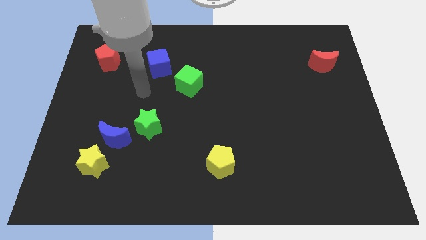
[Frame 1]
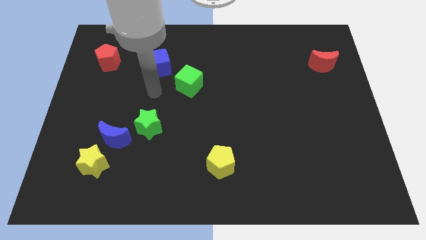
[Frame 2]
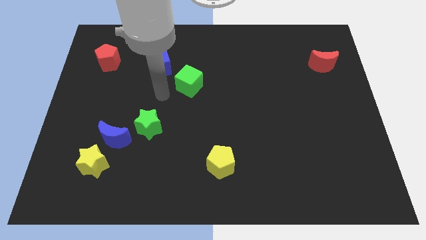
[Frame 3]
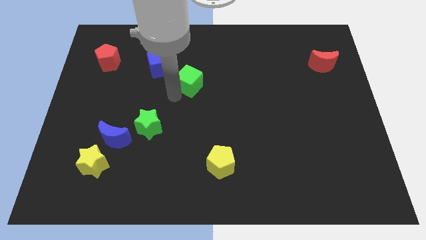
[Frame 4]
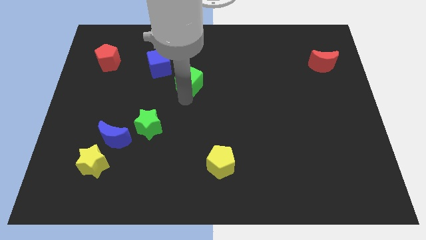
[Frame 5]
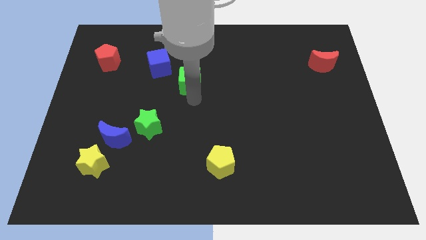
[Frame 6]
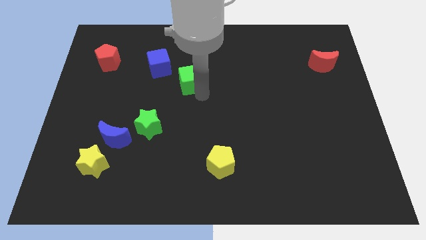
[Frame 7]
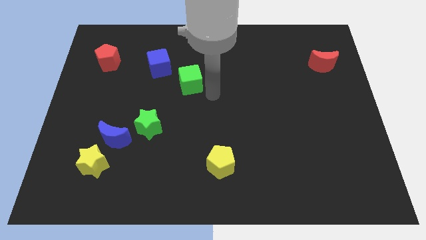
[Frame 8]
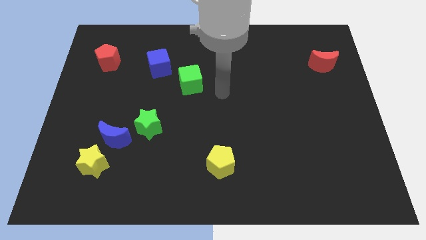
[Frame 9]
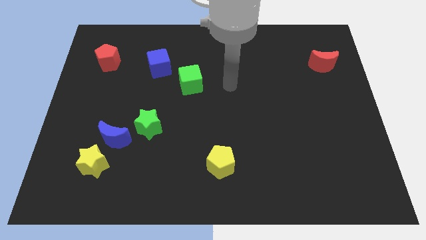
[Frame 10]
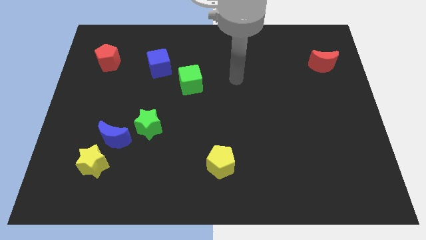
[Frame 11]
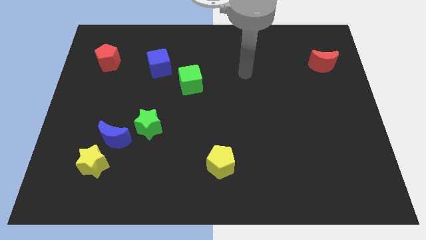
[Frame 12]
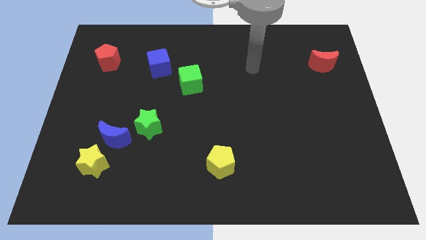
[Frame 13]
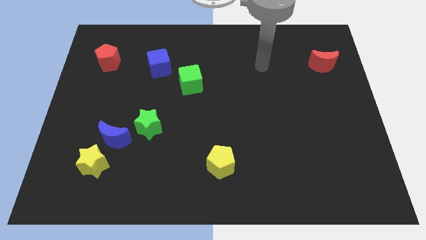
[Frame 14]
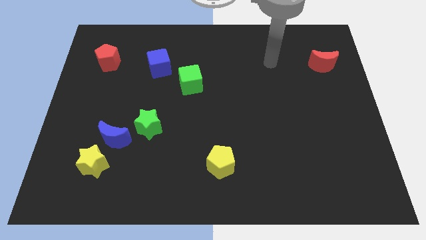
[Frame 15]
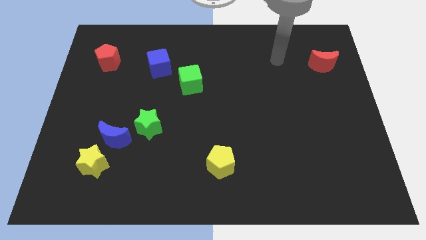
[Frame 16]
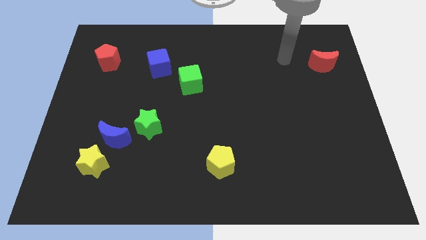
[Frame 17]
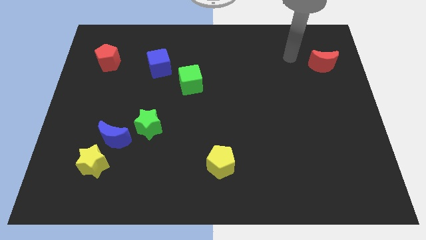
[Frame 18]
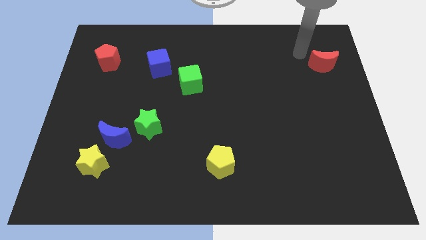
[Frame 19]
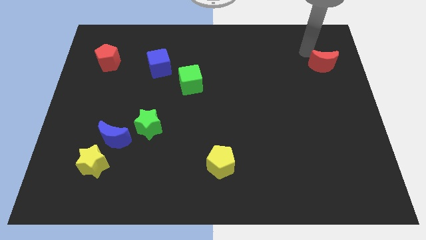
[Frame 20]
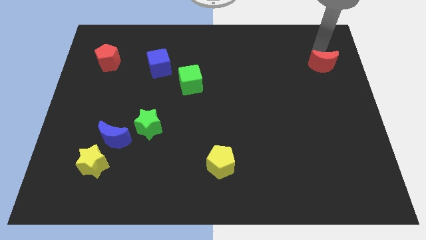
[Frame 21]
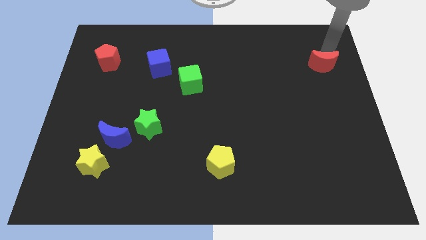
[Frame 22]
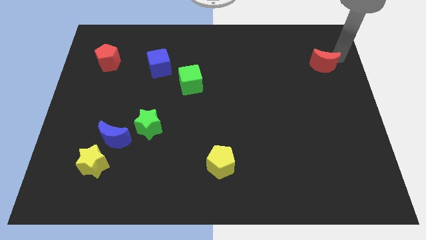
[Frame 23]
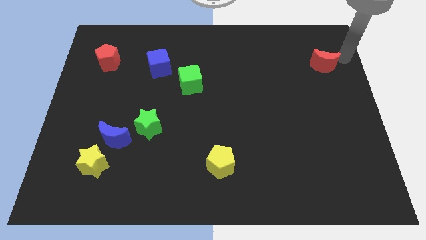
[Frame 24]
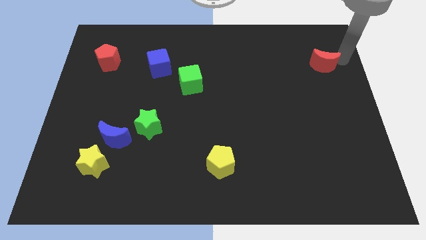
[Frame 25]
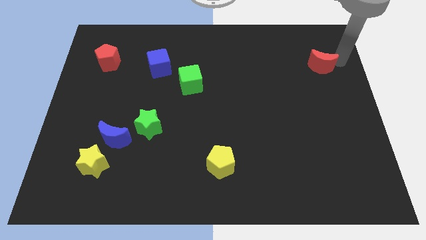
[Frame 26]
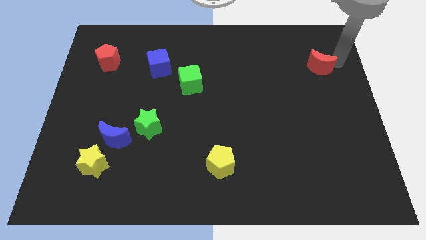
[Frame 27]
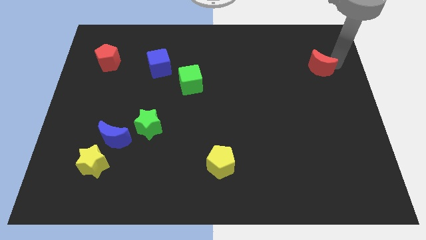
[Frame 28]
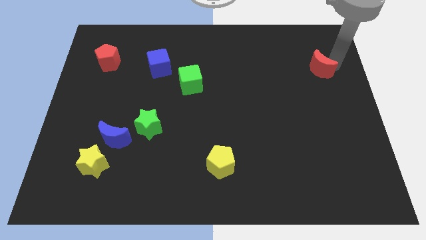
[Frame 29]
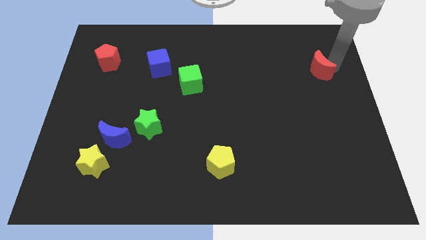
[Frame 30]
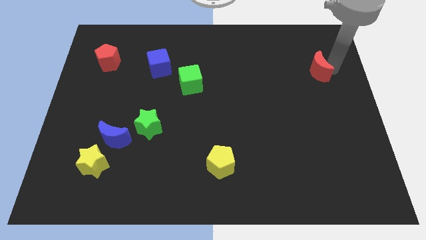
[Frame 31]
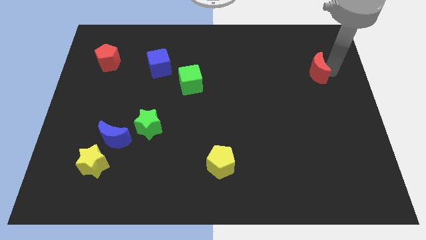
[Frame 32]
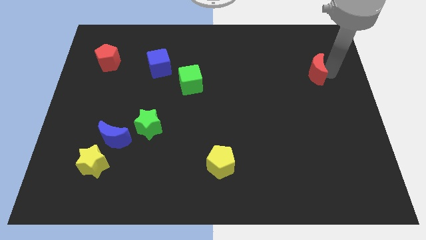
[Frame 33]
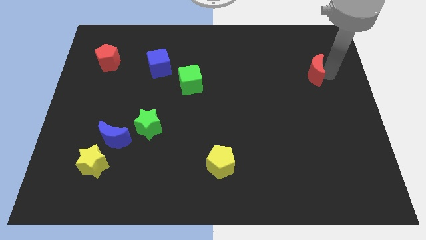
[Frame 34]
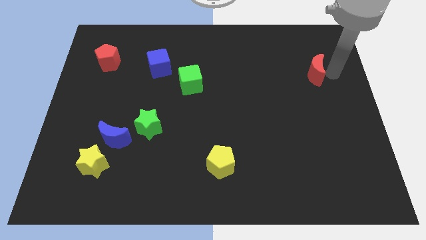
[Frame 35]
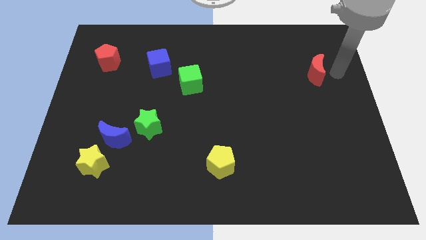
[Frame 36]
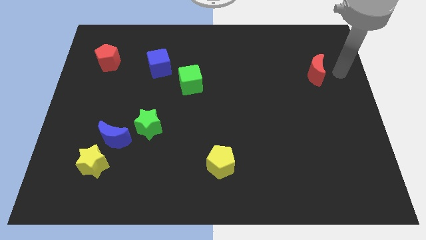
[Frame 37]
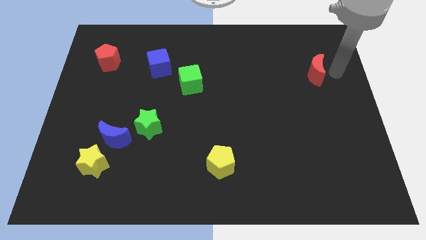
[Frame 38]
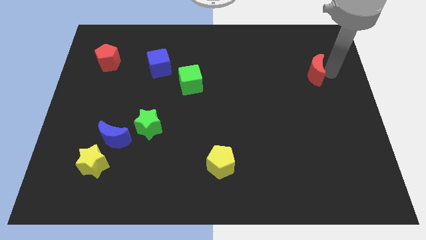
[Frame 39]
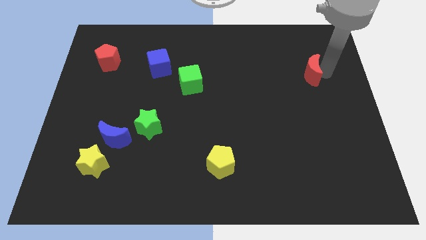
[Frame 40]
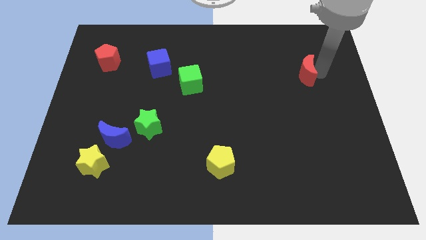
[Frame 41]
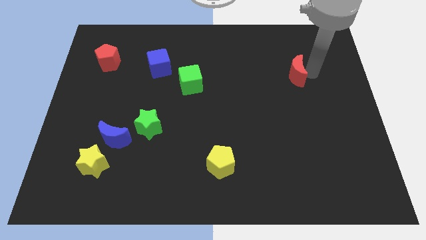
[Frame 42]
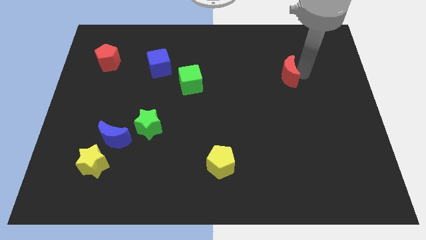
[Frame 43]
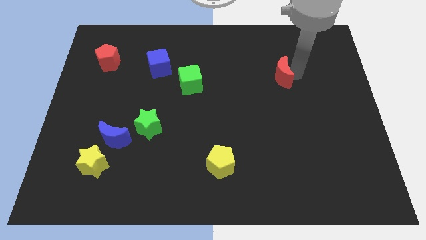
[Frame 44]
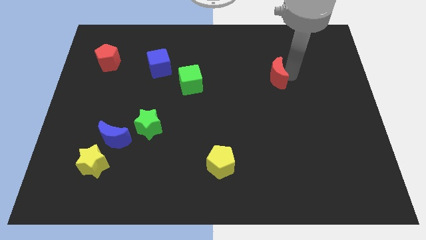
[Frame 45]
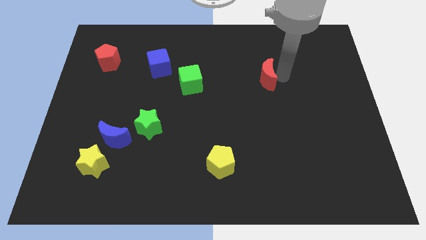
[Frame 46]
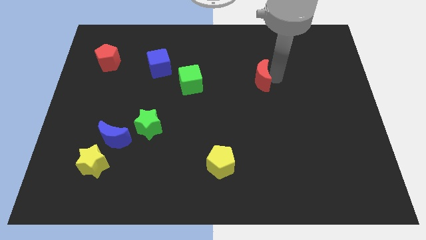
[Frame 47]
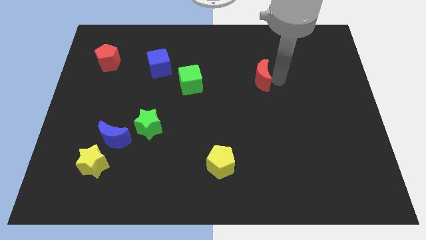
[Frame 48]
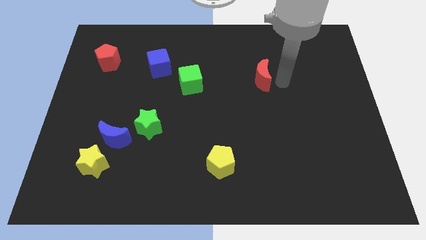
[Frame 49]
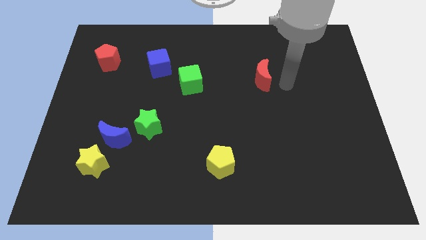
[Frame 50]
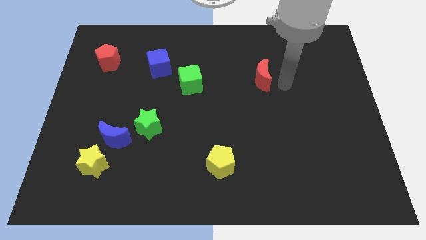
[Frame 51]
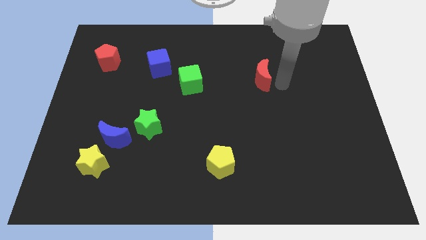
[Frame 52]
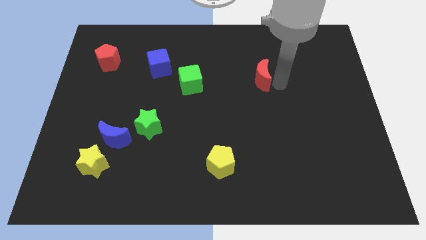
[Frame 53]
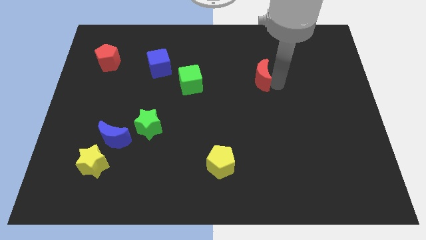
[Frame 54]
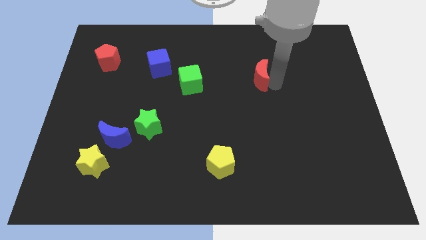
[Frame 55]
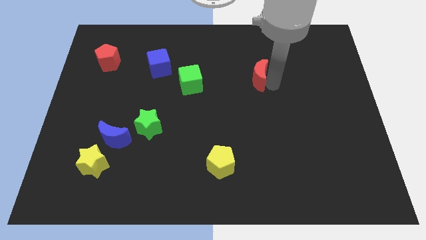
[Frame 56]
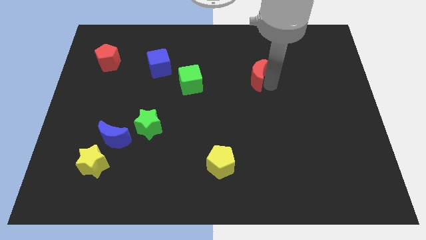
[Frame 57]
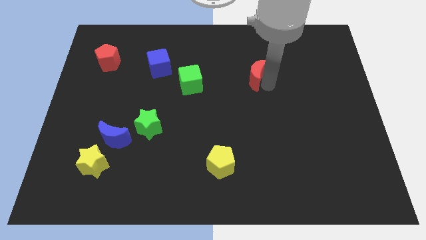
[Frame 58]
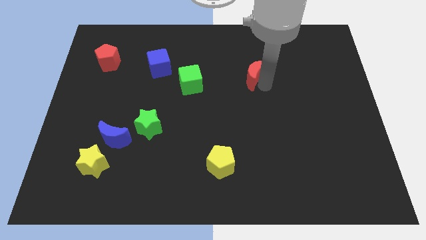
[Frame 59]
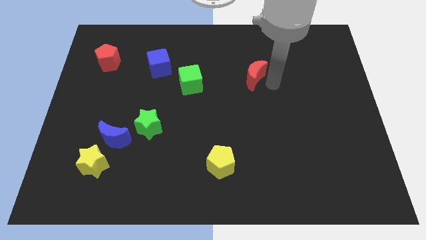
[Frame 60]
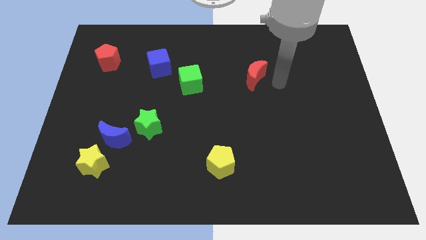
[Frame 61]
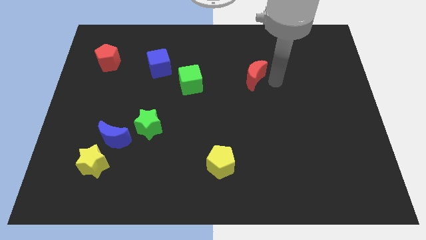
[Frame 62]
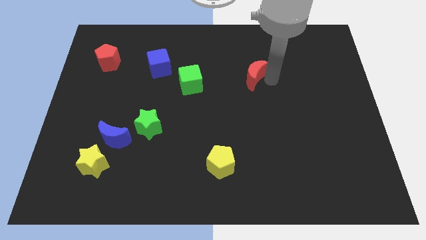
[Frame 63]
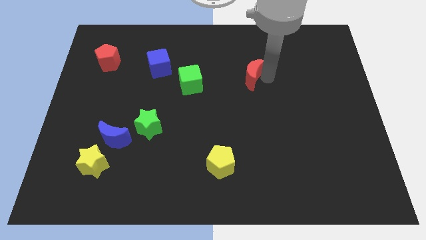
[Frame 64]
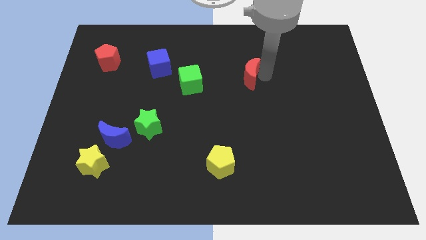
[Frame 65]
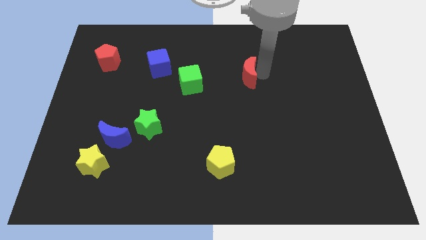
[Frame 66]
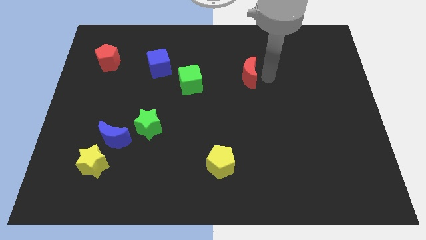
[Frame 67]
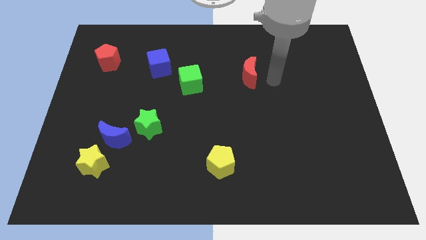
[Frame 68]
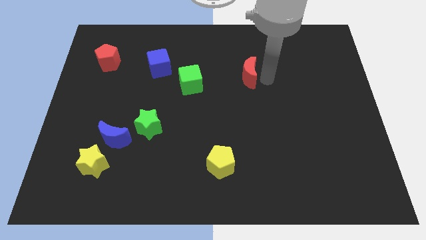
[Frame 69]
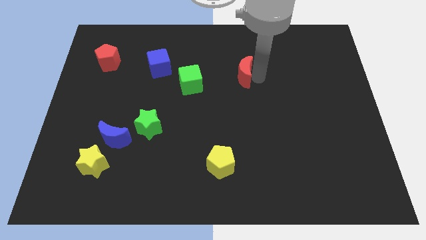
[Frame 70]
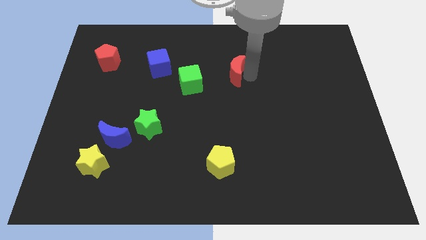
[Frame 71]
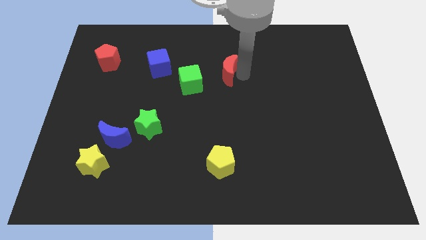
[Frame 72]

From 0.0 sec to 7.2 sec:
move the red moon diagonally up and to the right of the green cube

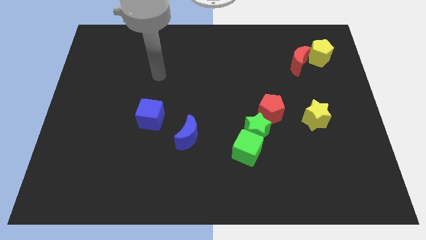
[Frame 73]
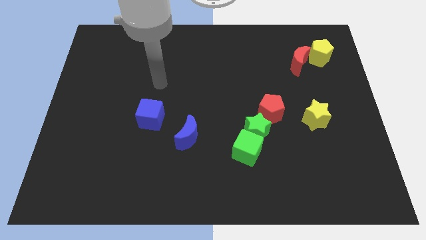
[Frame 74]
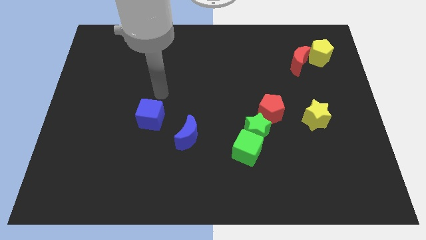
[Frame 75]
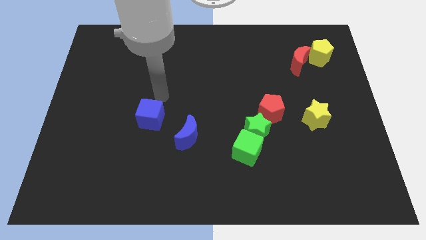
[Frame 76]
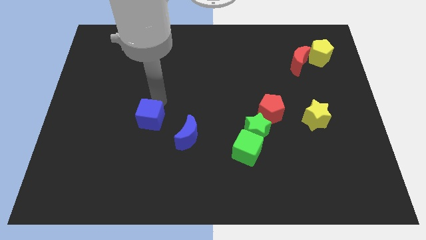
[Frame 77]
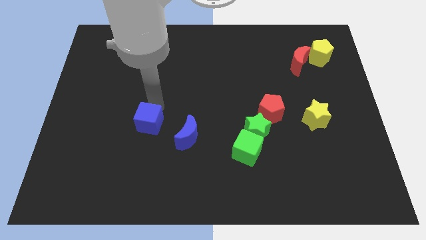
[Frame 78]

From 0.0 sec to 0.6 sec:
slide the blue cube just left of the blue moon
